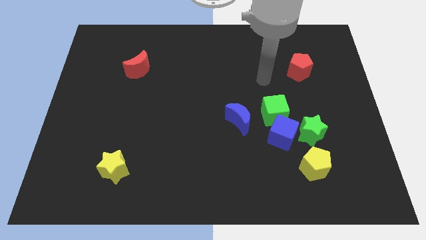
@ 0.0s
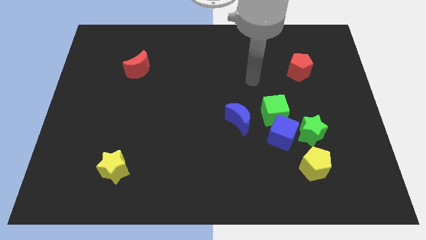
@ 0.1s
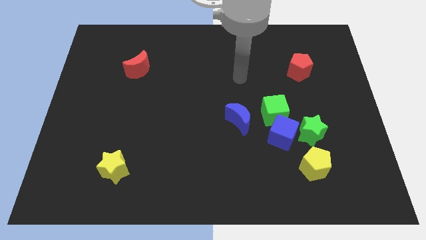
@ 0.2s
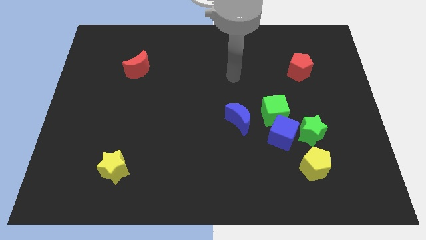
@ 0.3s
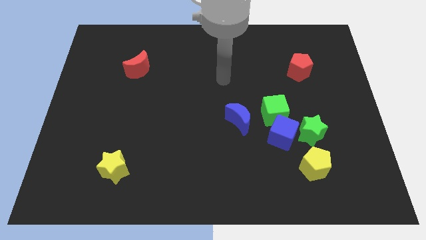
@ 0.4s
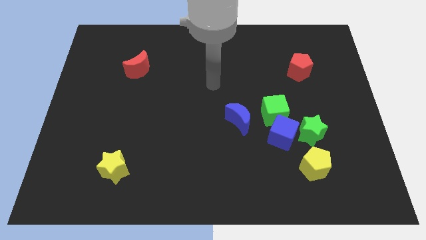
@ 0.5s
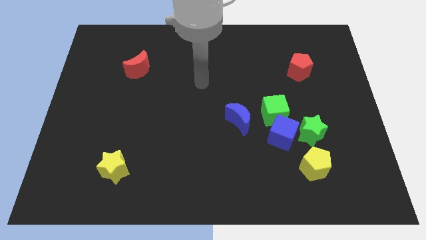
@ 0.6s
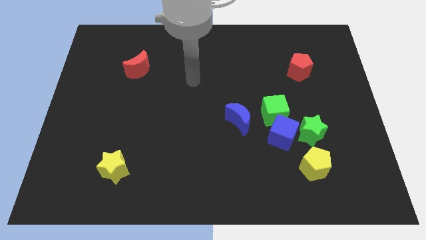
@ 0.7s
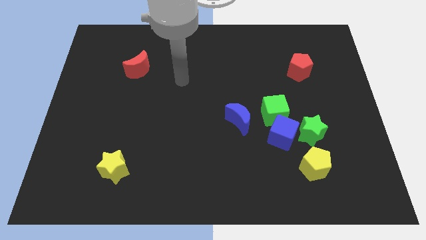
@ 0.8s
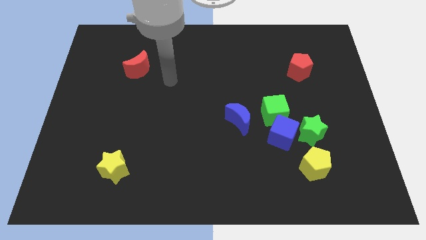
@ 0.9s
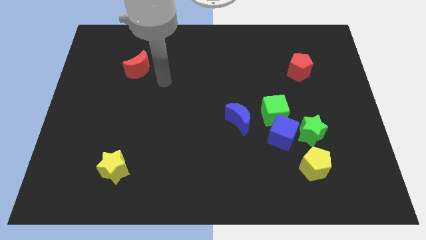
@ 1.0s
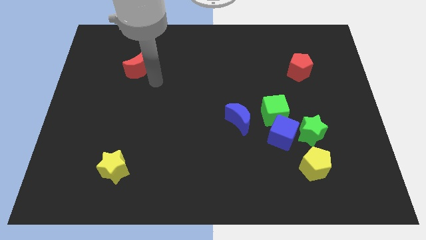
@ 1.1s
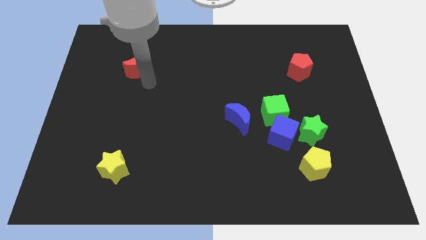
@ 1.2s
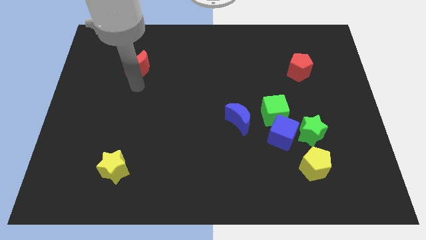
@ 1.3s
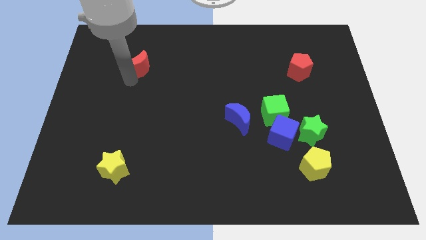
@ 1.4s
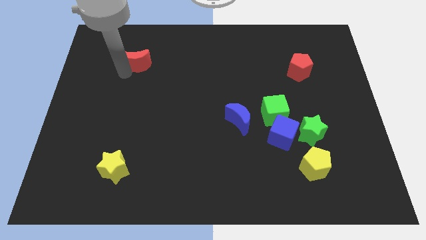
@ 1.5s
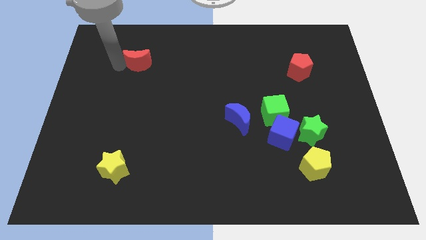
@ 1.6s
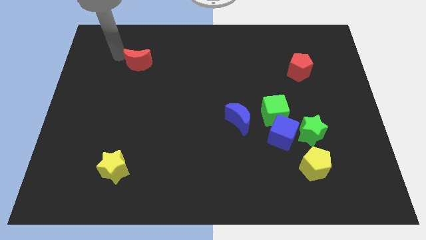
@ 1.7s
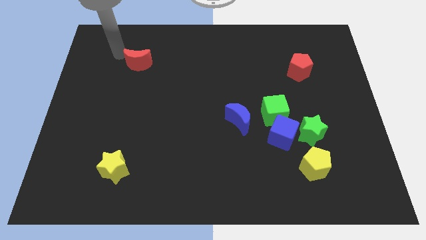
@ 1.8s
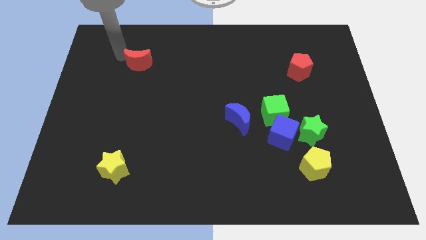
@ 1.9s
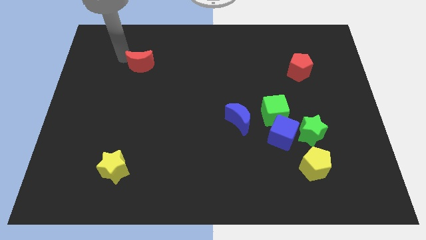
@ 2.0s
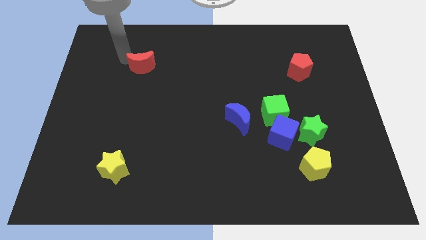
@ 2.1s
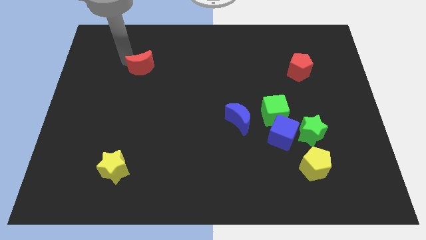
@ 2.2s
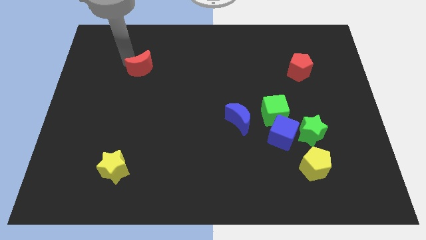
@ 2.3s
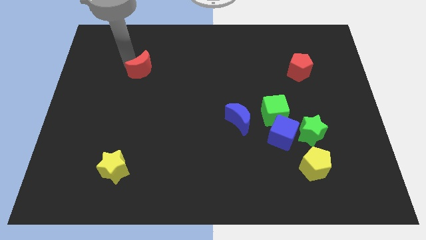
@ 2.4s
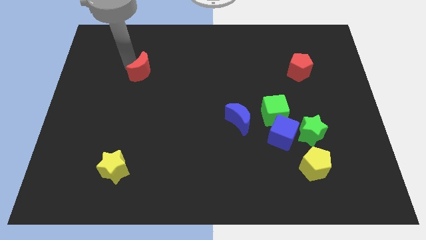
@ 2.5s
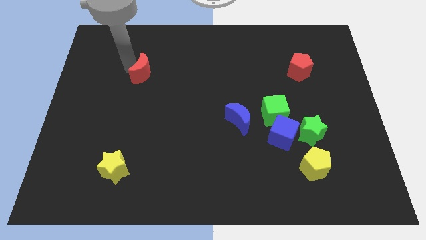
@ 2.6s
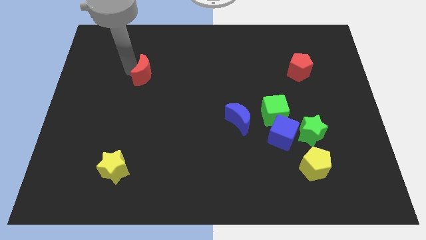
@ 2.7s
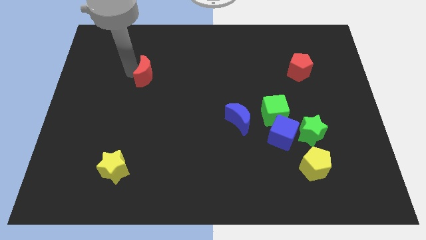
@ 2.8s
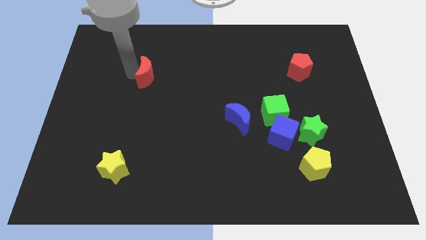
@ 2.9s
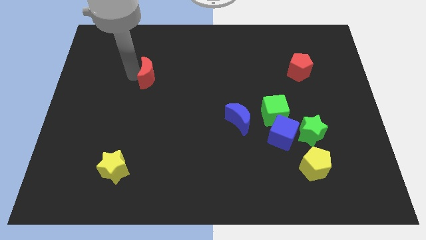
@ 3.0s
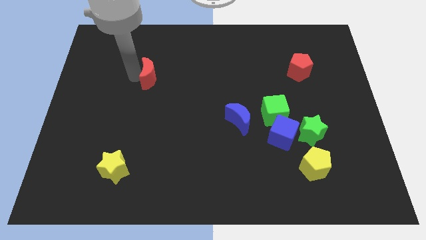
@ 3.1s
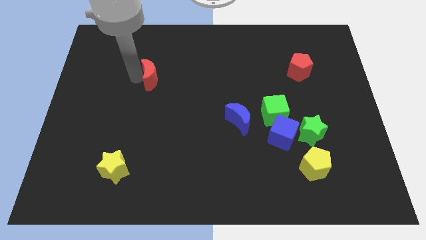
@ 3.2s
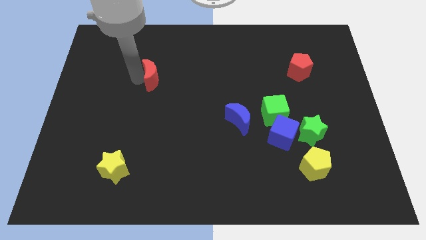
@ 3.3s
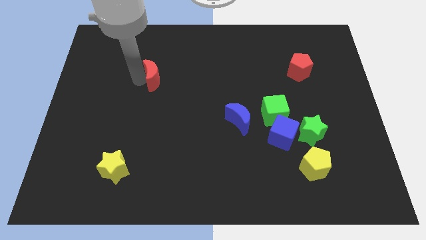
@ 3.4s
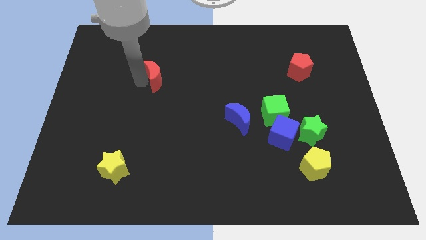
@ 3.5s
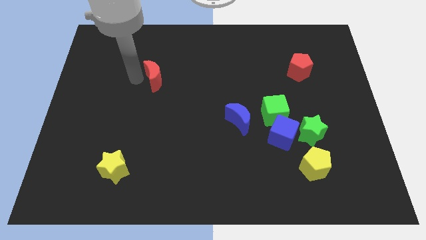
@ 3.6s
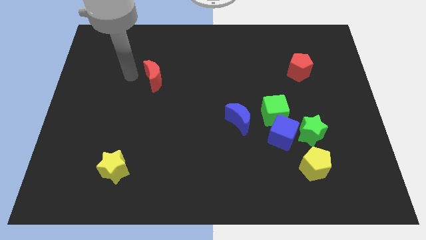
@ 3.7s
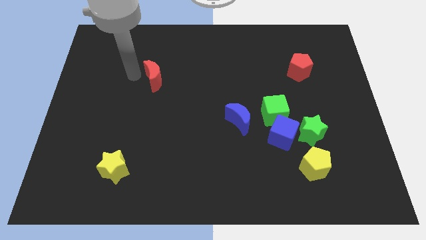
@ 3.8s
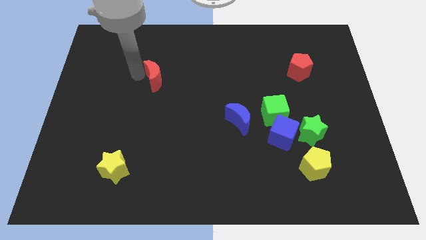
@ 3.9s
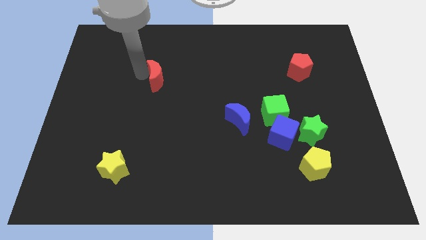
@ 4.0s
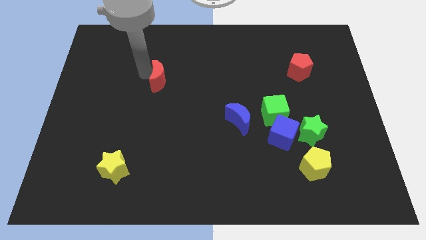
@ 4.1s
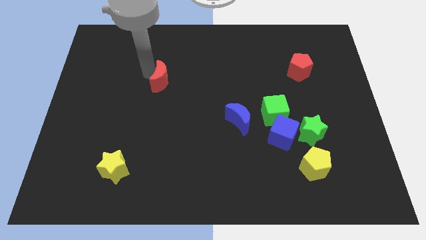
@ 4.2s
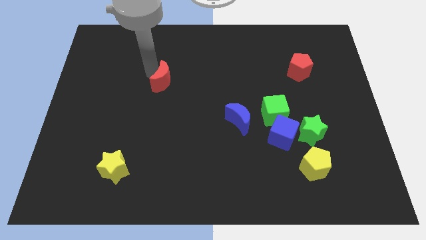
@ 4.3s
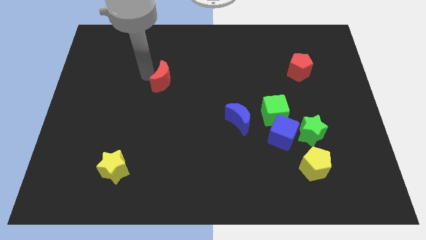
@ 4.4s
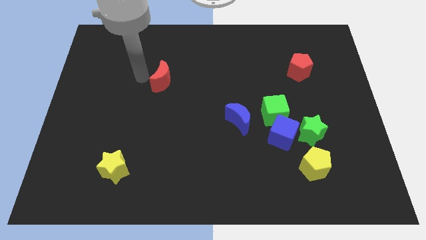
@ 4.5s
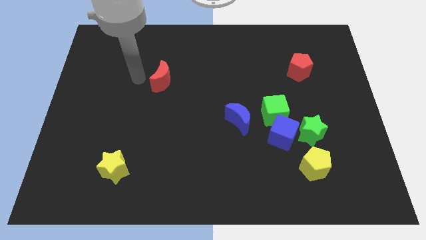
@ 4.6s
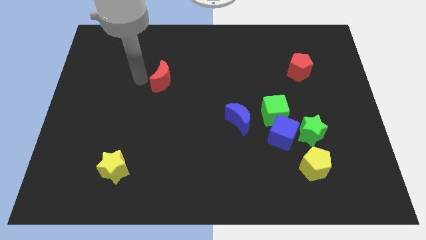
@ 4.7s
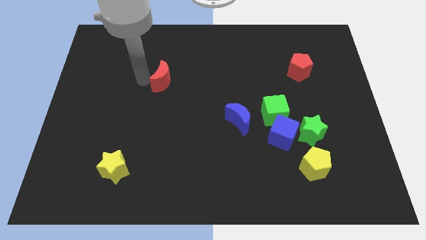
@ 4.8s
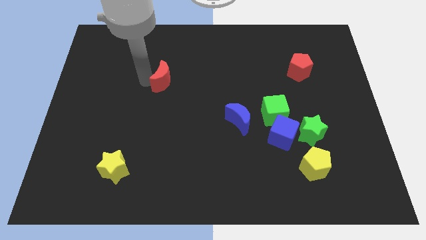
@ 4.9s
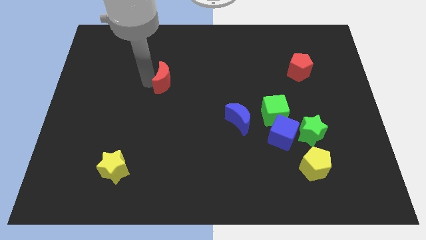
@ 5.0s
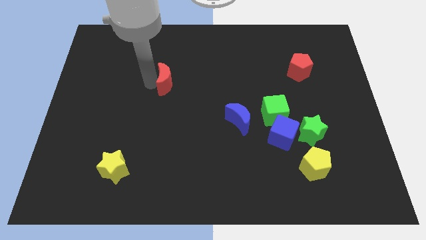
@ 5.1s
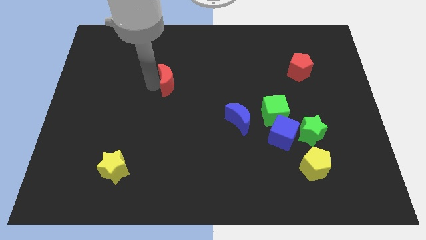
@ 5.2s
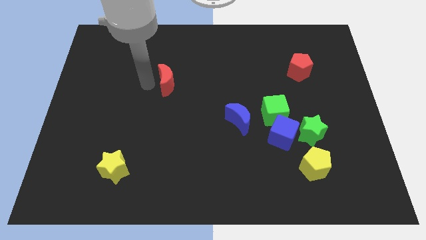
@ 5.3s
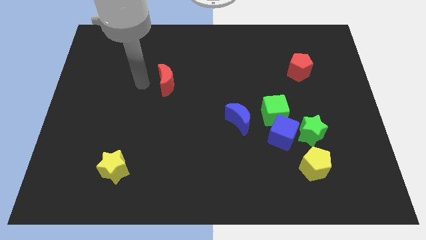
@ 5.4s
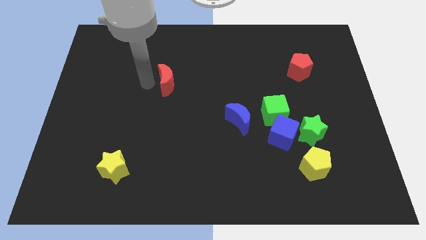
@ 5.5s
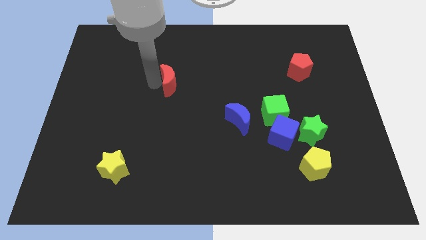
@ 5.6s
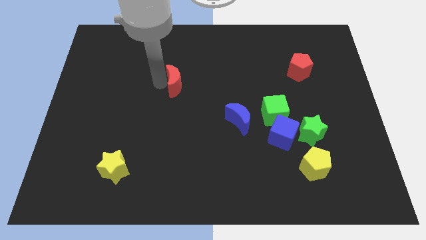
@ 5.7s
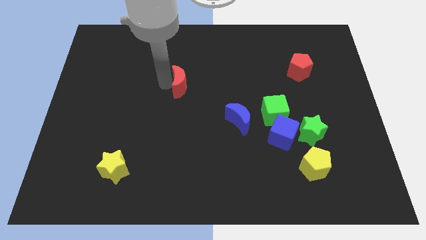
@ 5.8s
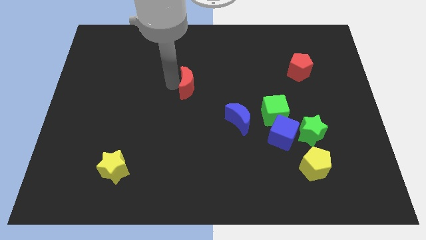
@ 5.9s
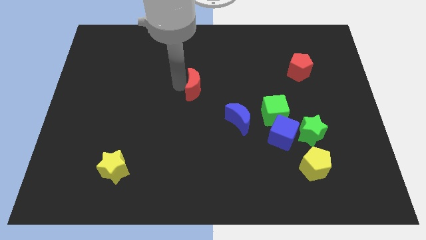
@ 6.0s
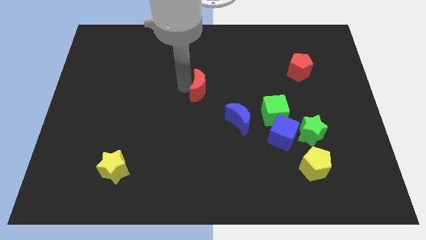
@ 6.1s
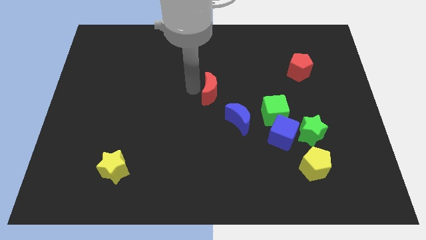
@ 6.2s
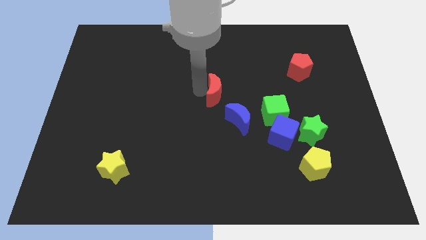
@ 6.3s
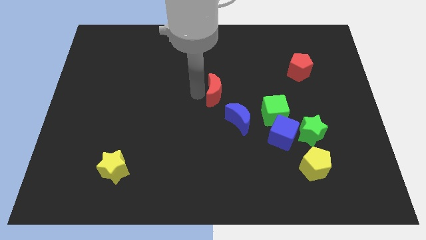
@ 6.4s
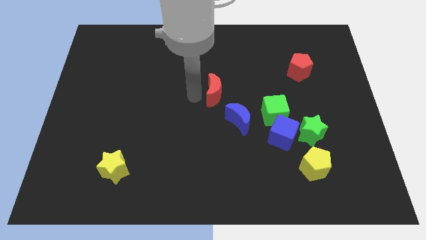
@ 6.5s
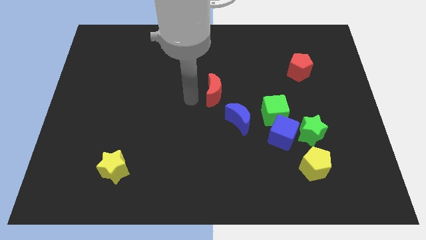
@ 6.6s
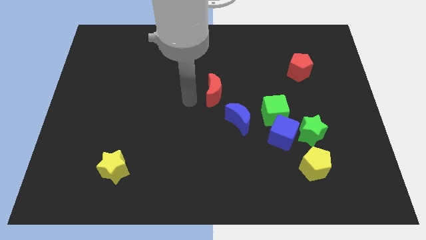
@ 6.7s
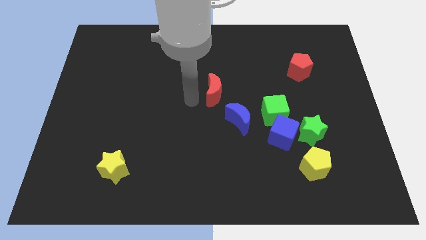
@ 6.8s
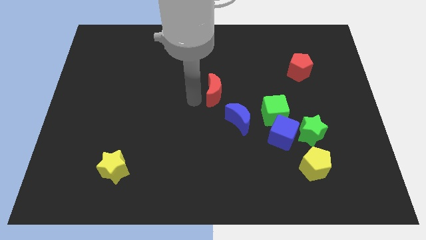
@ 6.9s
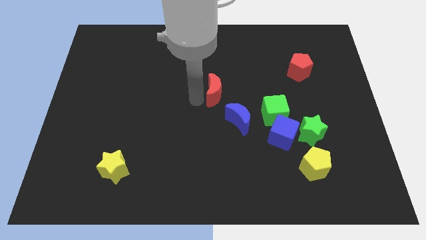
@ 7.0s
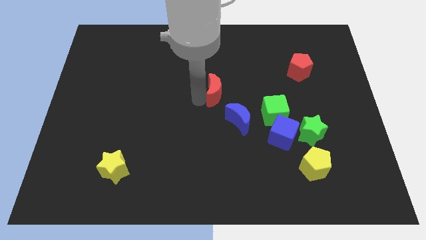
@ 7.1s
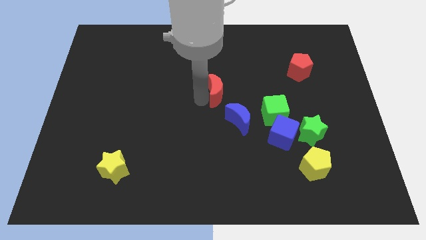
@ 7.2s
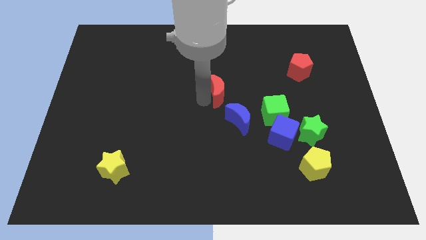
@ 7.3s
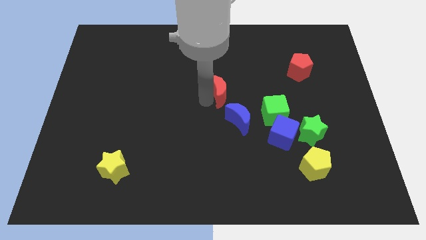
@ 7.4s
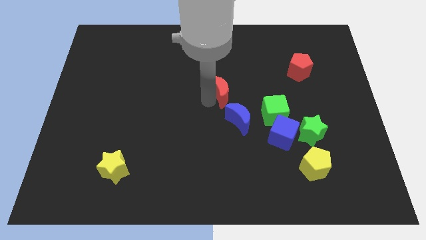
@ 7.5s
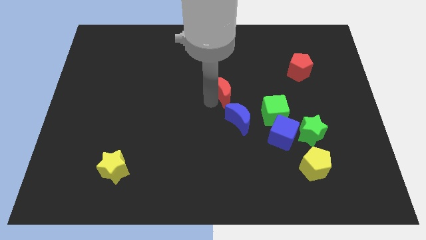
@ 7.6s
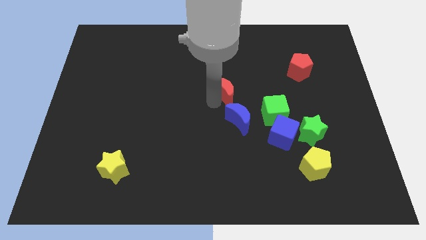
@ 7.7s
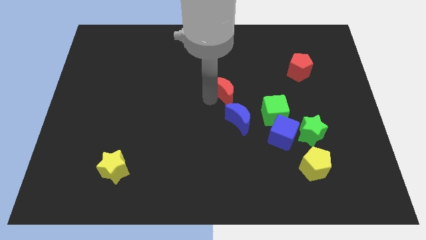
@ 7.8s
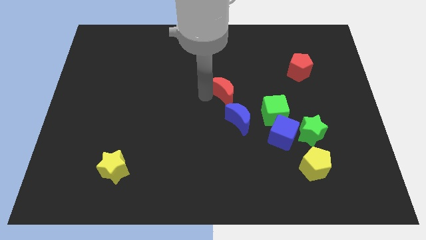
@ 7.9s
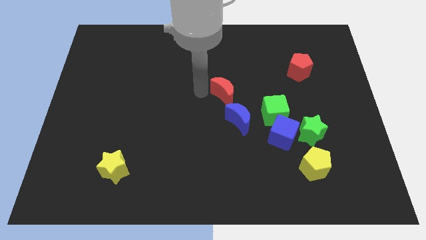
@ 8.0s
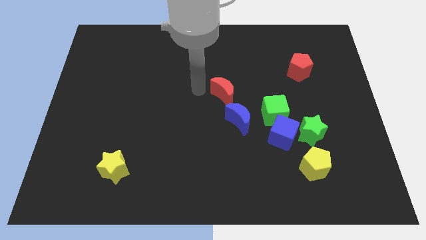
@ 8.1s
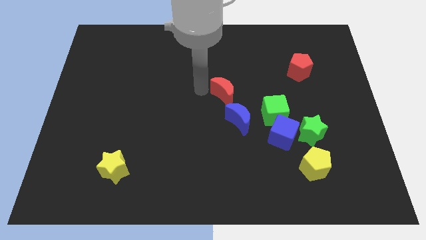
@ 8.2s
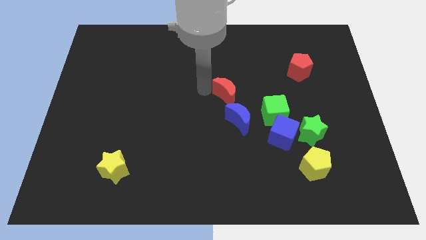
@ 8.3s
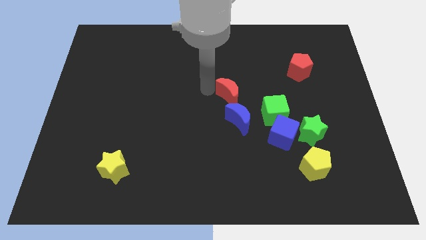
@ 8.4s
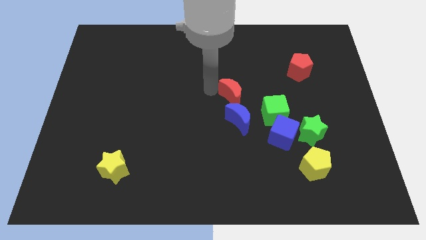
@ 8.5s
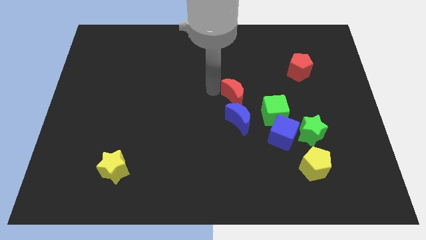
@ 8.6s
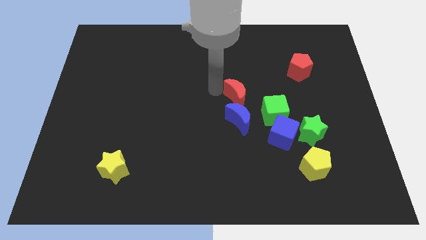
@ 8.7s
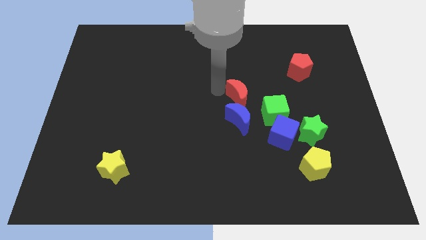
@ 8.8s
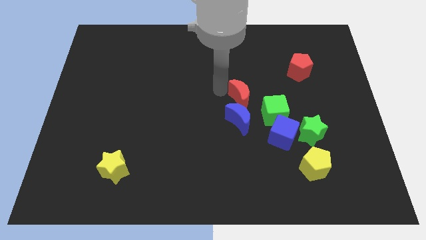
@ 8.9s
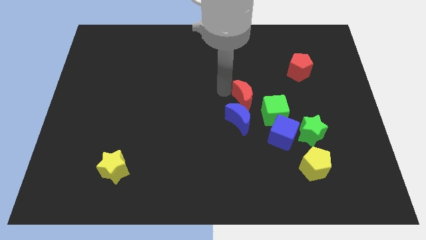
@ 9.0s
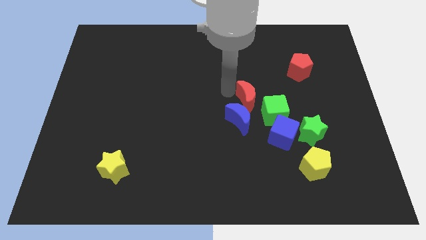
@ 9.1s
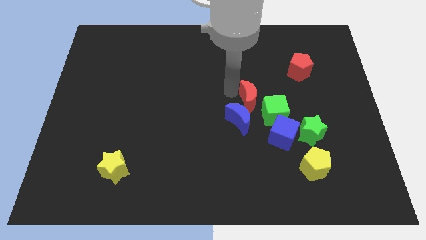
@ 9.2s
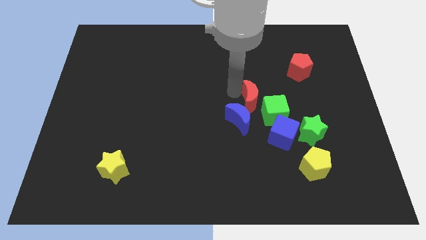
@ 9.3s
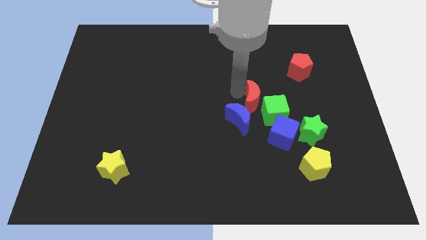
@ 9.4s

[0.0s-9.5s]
push the red moon towards the green cube
